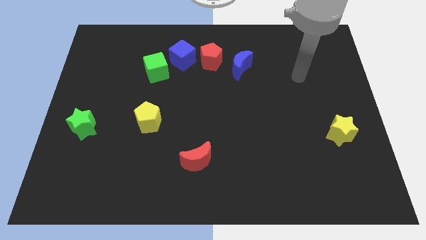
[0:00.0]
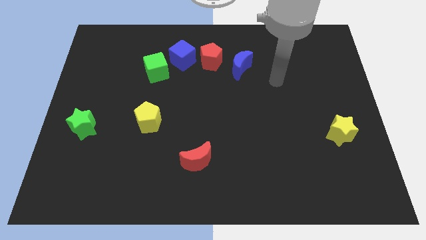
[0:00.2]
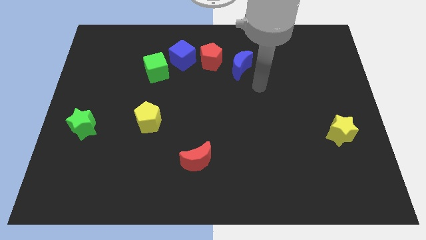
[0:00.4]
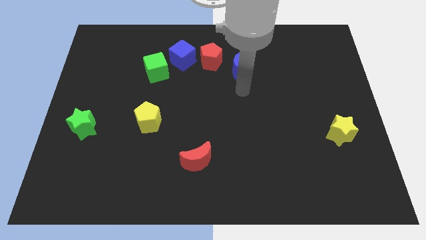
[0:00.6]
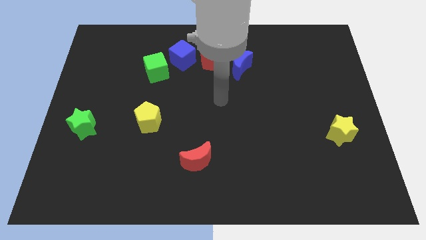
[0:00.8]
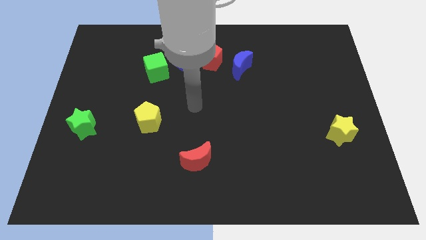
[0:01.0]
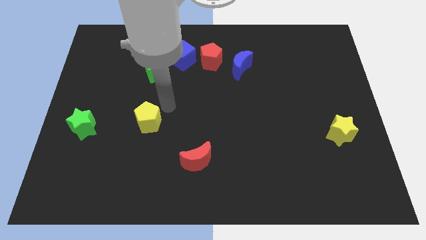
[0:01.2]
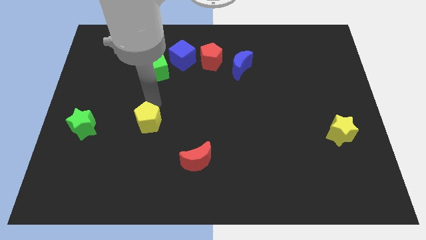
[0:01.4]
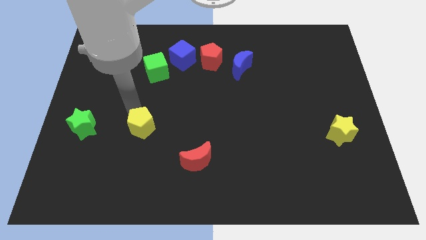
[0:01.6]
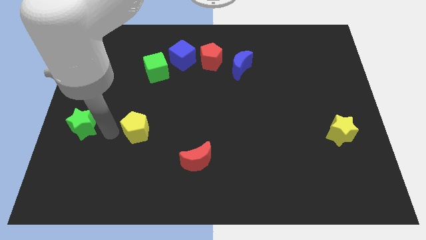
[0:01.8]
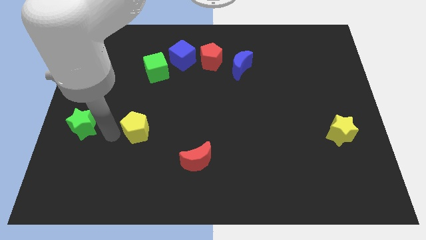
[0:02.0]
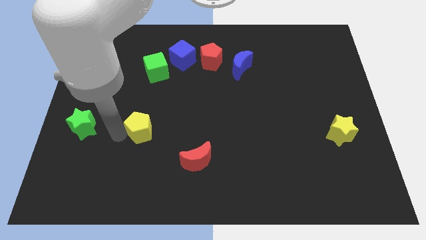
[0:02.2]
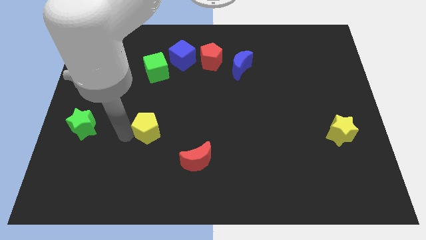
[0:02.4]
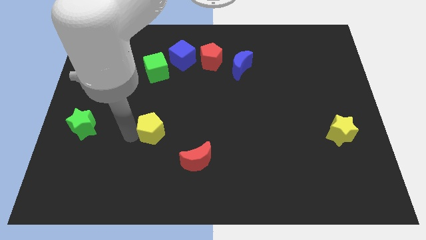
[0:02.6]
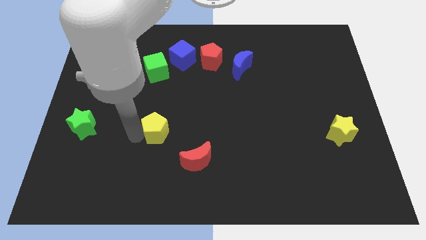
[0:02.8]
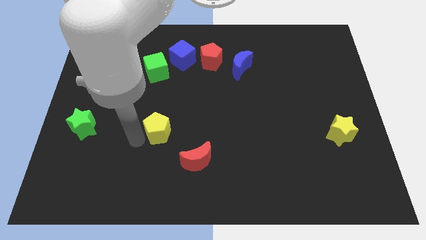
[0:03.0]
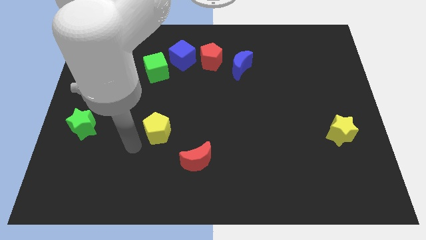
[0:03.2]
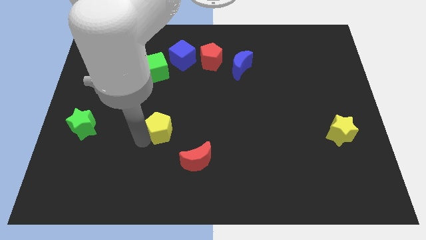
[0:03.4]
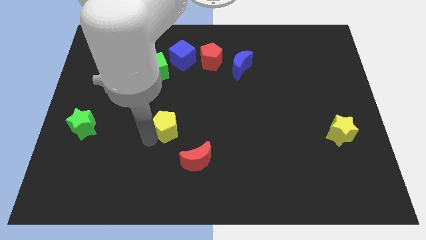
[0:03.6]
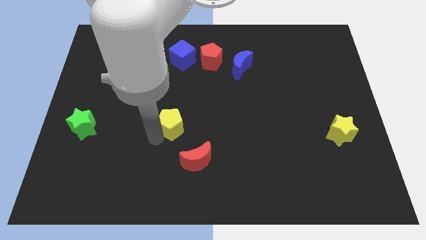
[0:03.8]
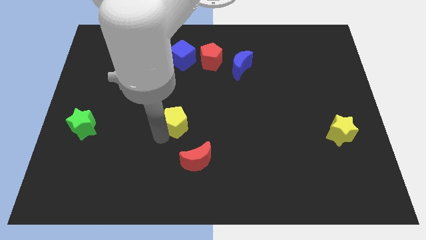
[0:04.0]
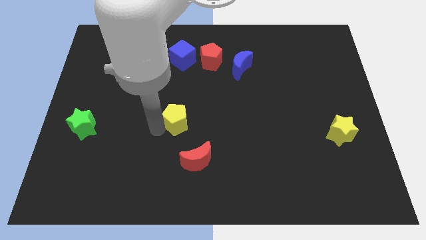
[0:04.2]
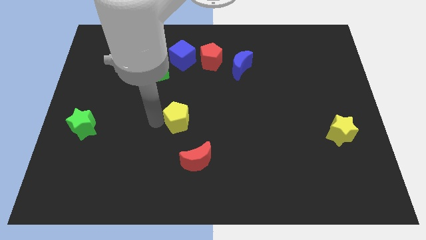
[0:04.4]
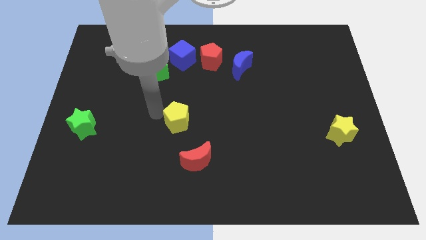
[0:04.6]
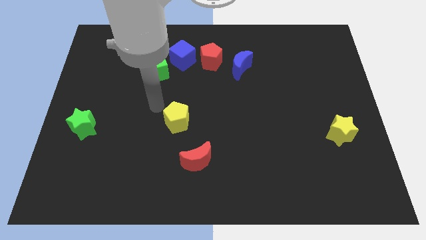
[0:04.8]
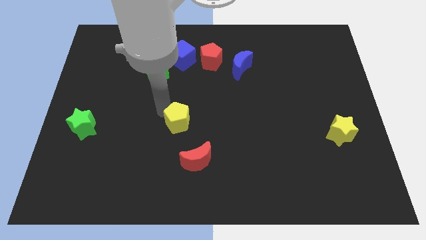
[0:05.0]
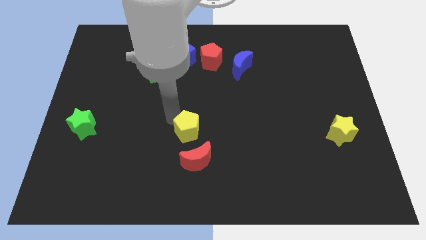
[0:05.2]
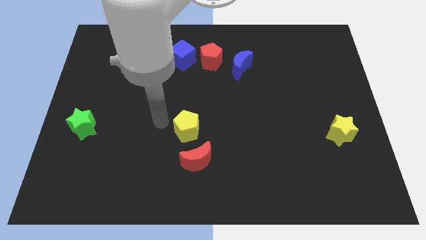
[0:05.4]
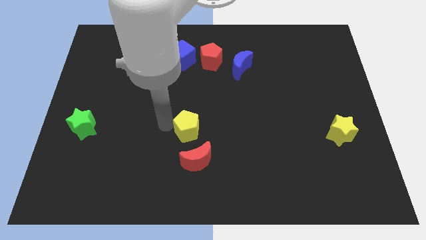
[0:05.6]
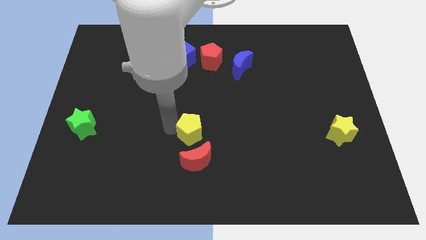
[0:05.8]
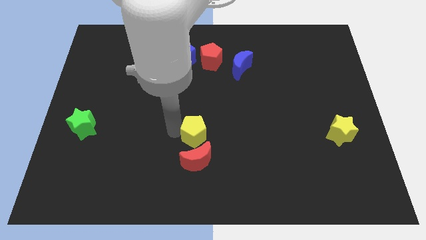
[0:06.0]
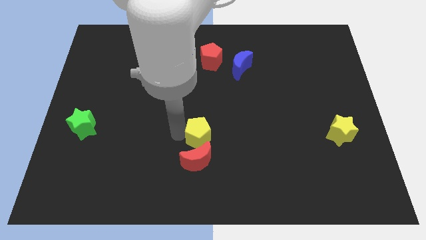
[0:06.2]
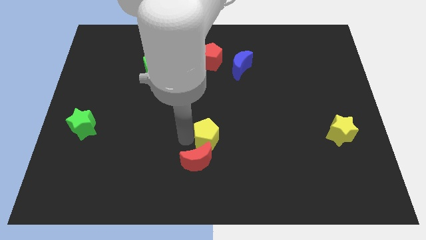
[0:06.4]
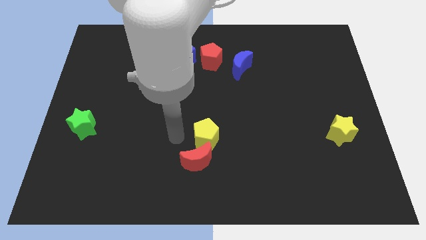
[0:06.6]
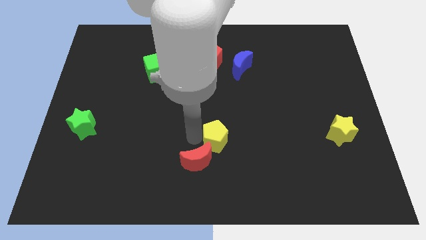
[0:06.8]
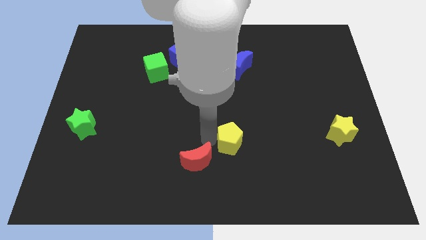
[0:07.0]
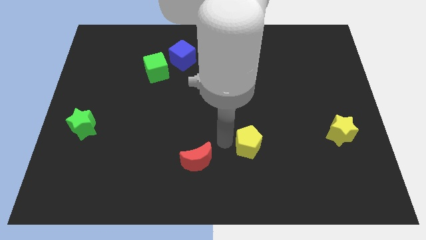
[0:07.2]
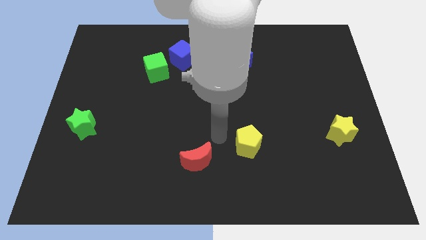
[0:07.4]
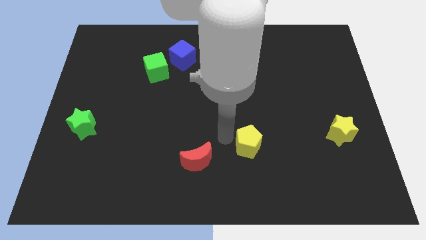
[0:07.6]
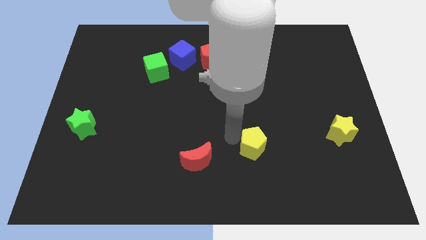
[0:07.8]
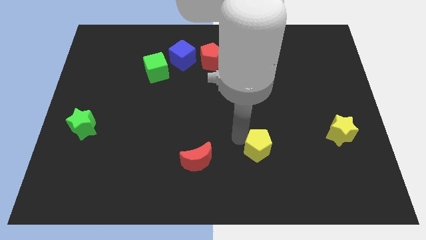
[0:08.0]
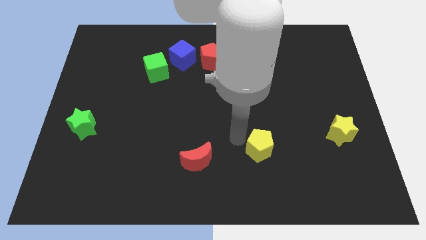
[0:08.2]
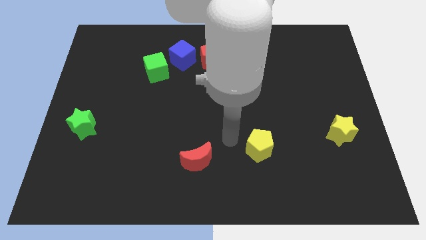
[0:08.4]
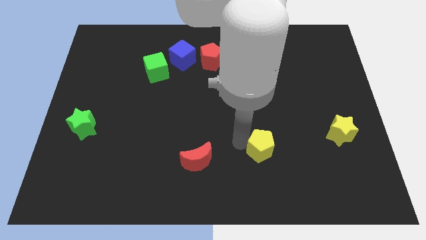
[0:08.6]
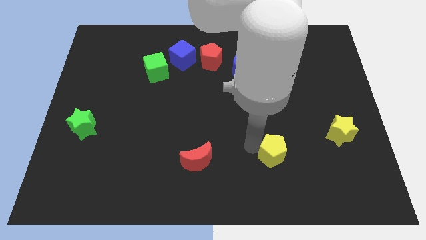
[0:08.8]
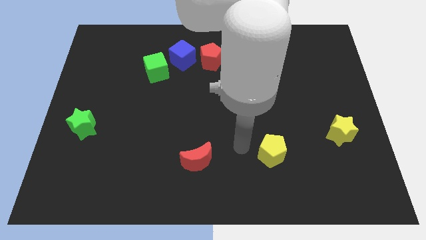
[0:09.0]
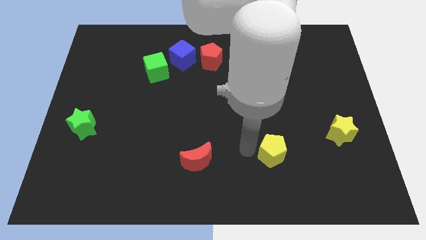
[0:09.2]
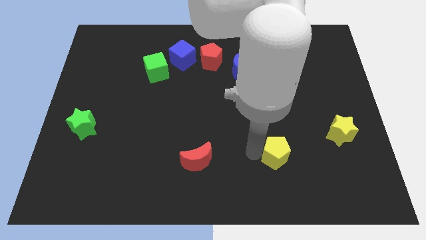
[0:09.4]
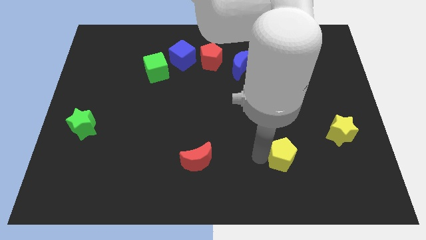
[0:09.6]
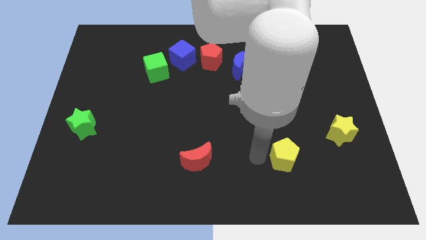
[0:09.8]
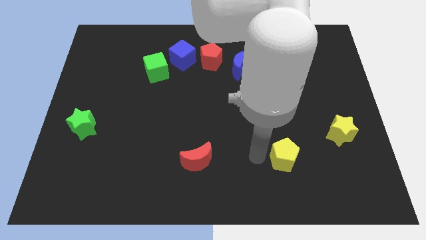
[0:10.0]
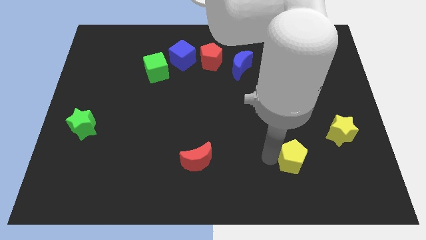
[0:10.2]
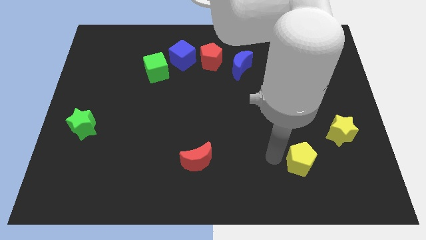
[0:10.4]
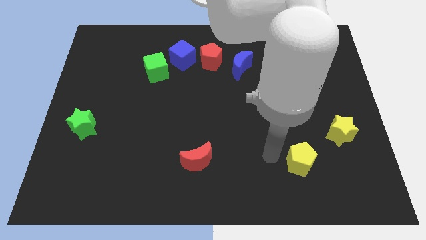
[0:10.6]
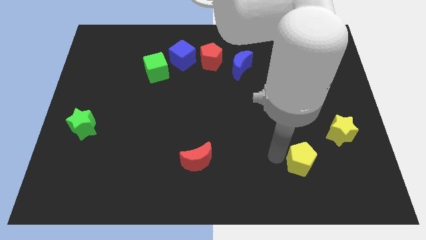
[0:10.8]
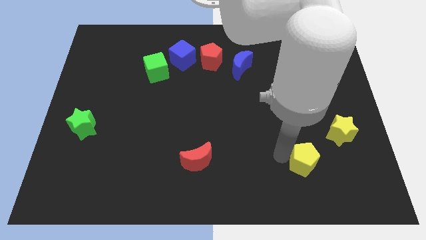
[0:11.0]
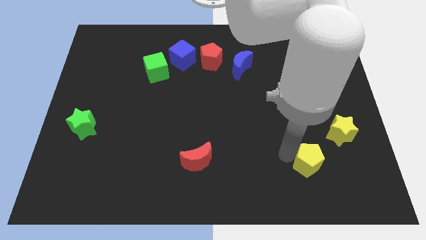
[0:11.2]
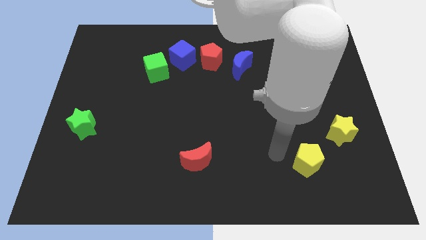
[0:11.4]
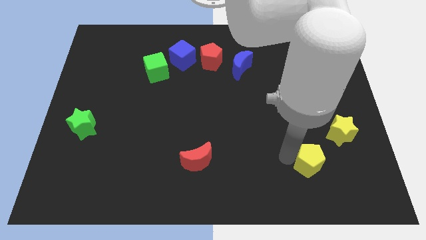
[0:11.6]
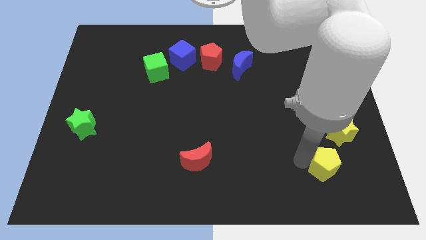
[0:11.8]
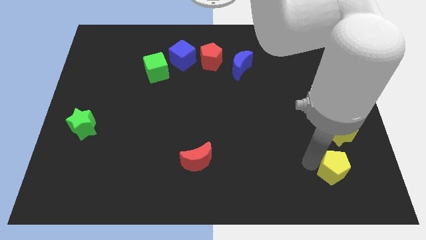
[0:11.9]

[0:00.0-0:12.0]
slide the yellow pentagon below the yellow star

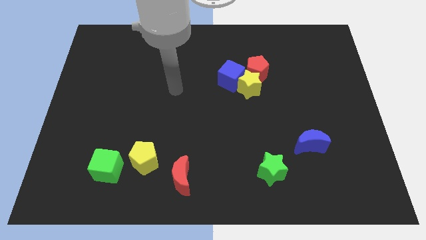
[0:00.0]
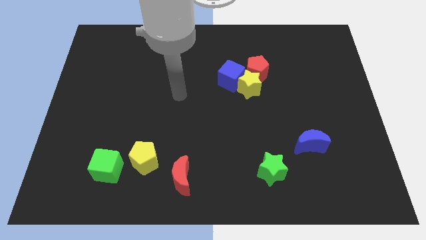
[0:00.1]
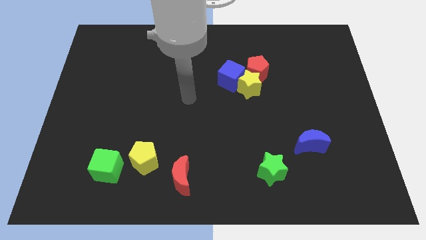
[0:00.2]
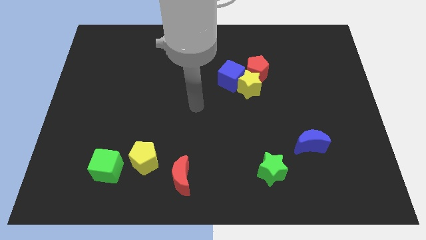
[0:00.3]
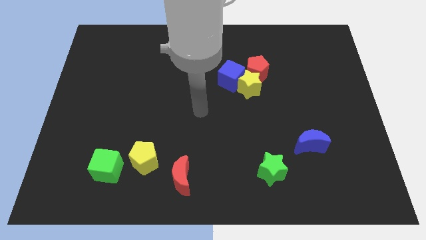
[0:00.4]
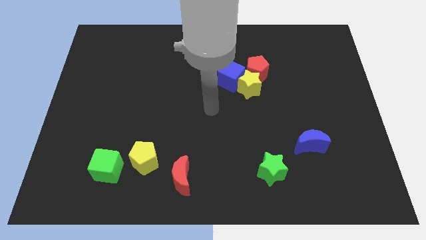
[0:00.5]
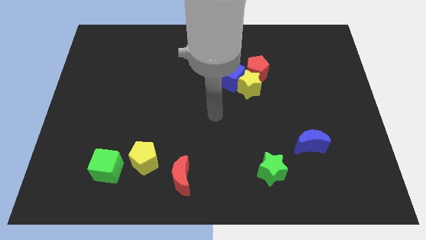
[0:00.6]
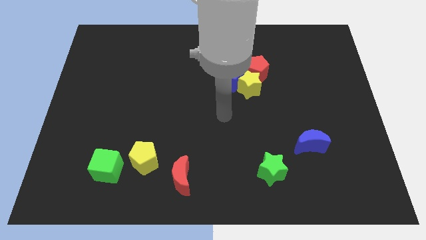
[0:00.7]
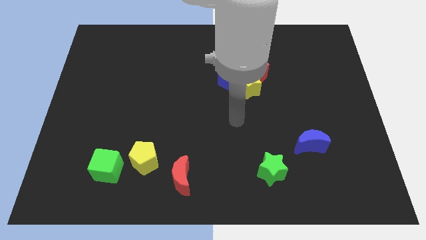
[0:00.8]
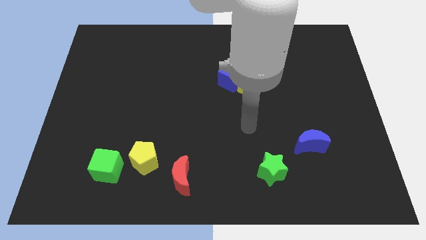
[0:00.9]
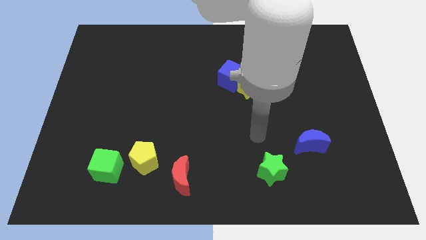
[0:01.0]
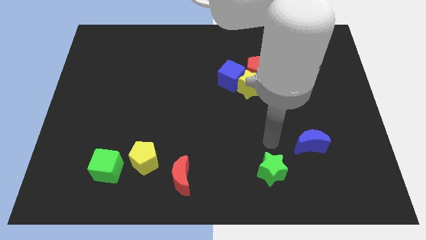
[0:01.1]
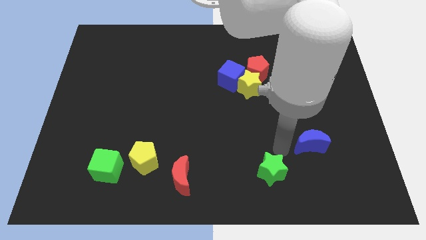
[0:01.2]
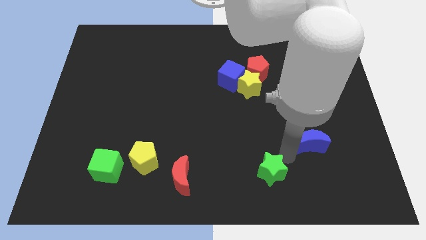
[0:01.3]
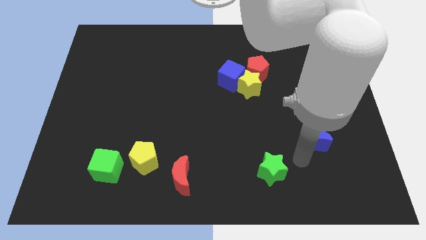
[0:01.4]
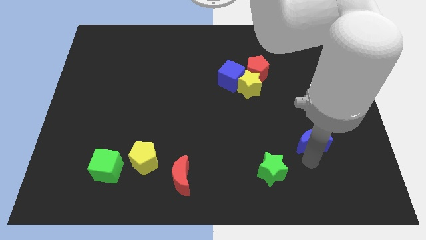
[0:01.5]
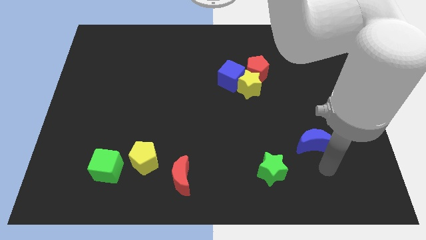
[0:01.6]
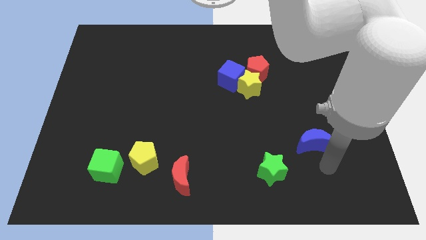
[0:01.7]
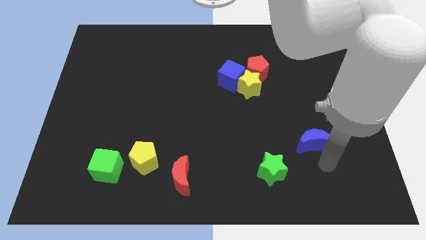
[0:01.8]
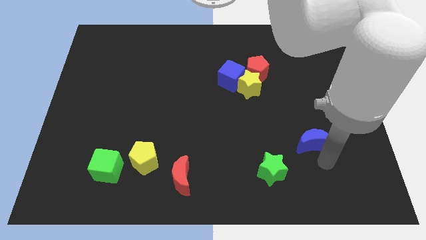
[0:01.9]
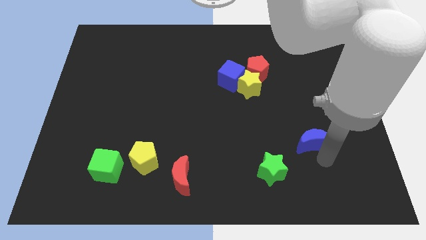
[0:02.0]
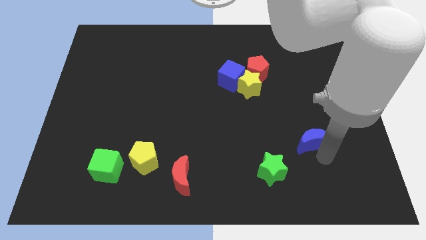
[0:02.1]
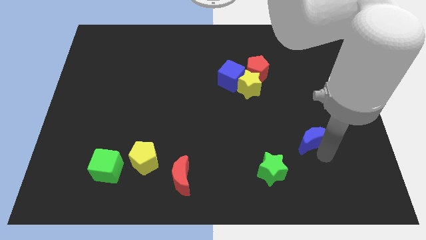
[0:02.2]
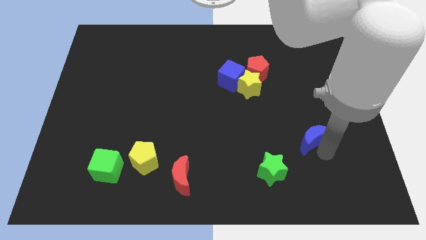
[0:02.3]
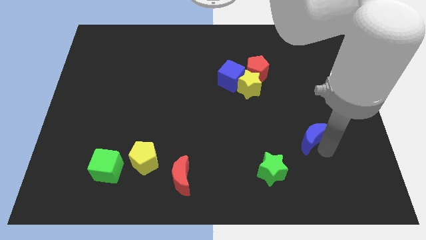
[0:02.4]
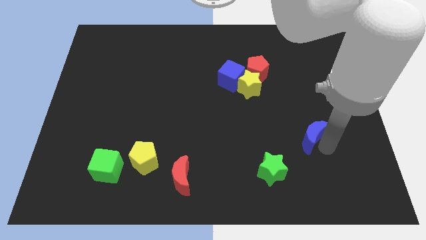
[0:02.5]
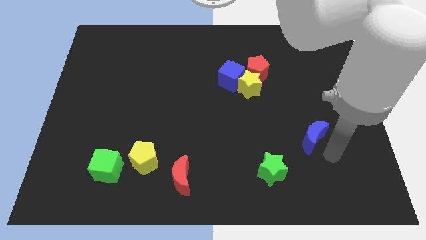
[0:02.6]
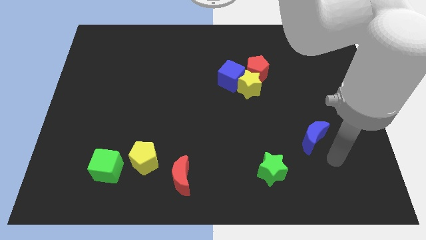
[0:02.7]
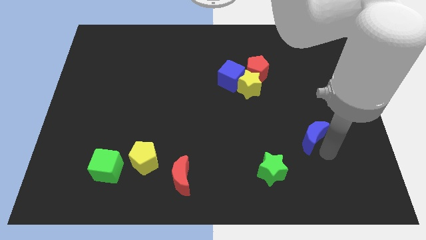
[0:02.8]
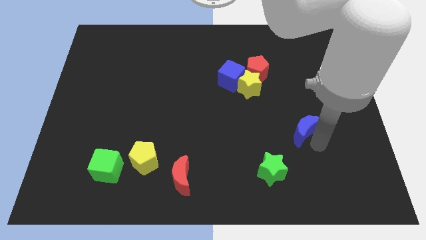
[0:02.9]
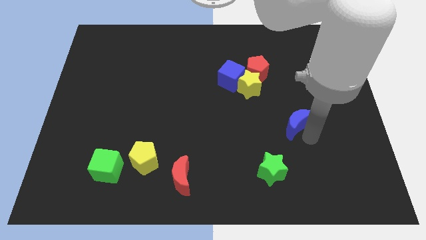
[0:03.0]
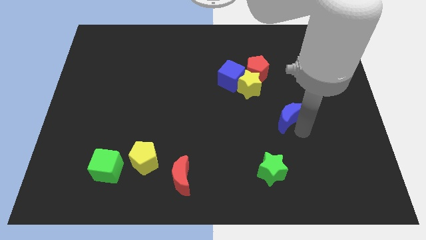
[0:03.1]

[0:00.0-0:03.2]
move the blue moon diagonally down and to the right of the yellow star
